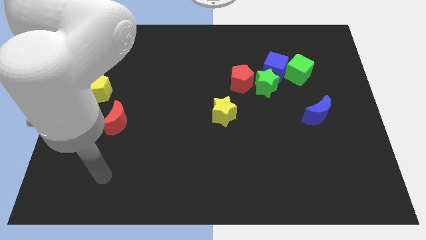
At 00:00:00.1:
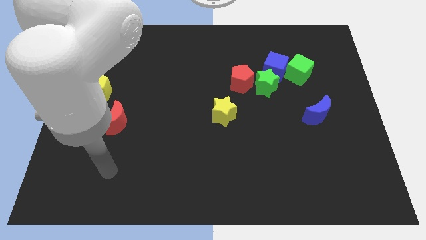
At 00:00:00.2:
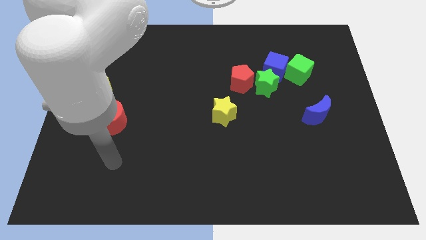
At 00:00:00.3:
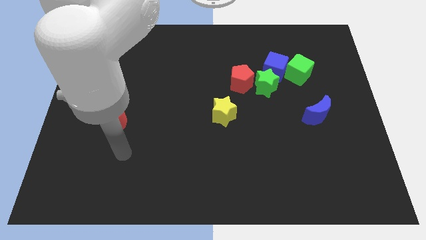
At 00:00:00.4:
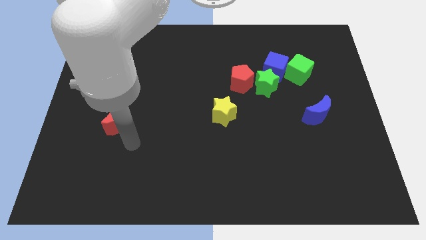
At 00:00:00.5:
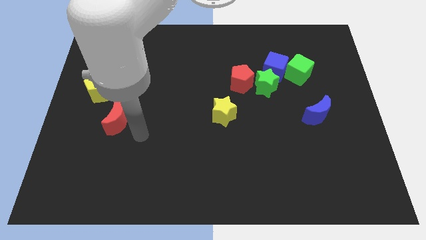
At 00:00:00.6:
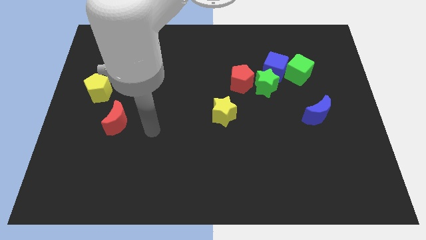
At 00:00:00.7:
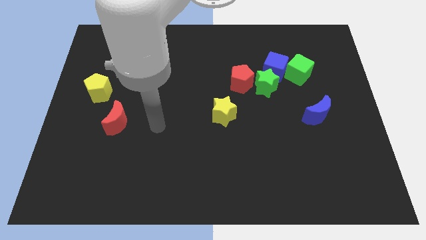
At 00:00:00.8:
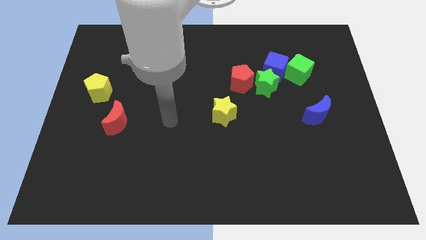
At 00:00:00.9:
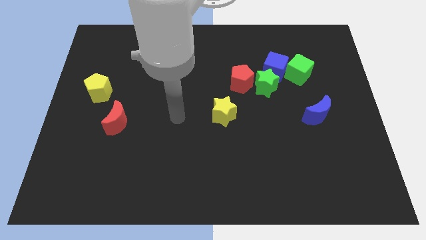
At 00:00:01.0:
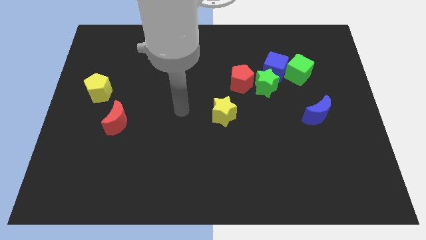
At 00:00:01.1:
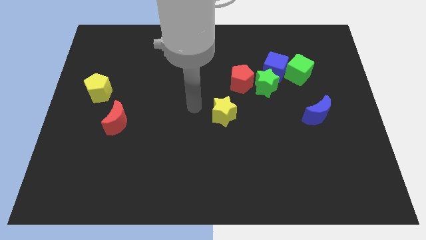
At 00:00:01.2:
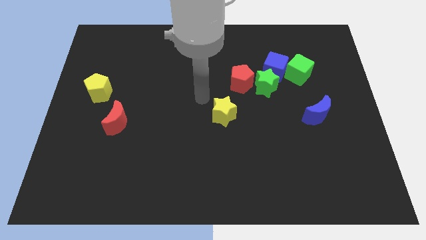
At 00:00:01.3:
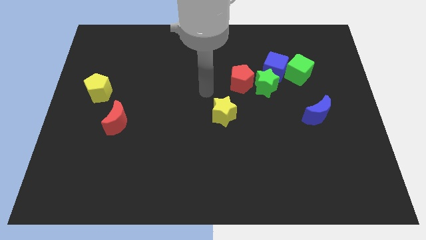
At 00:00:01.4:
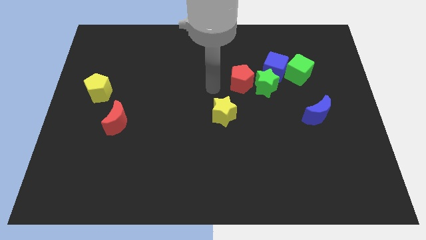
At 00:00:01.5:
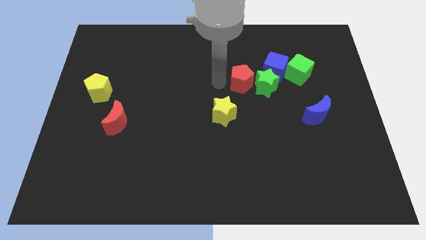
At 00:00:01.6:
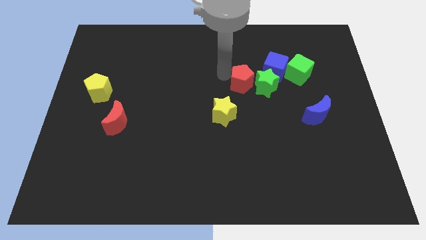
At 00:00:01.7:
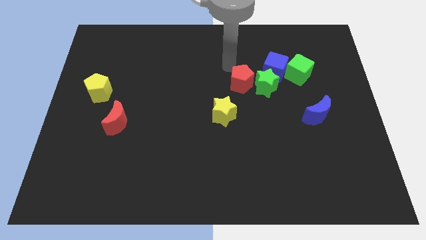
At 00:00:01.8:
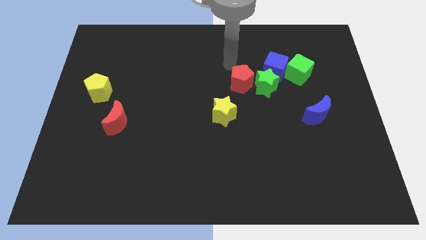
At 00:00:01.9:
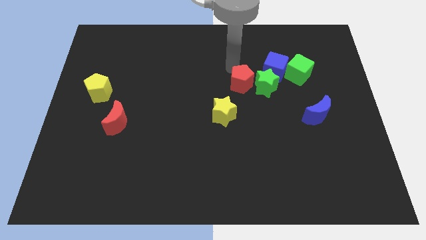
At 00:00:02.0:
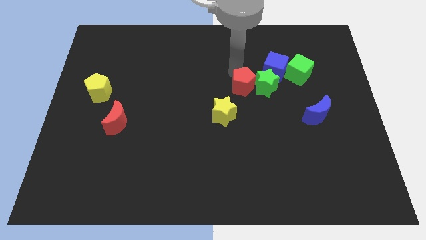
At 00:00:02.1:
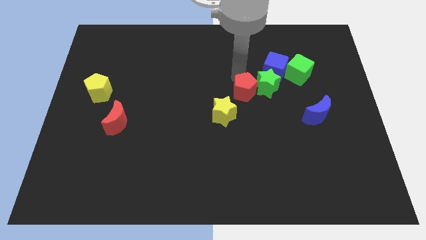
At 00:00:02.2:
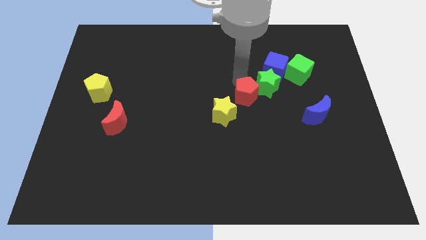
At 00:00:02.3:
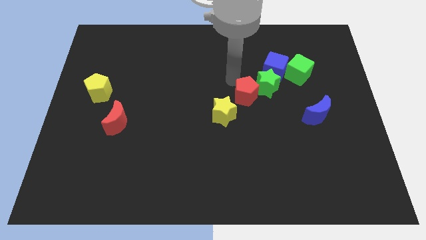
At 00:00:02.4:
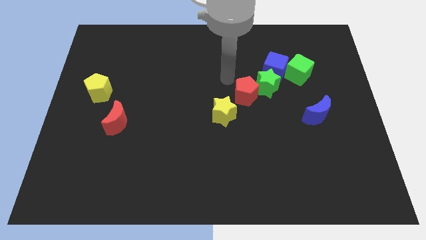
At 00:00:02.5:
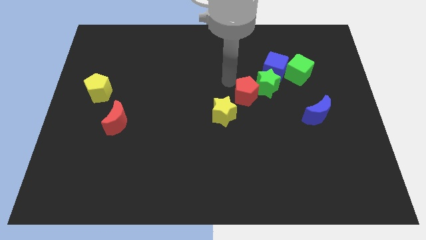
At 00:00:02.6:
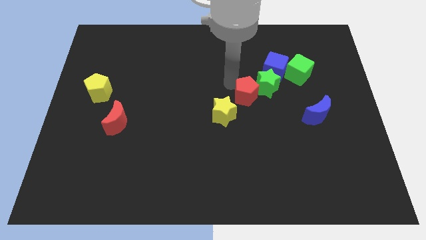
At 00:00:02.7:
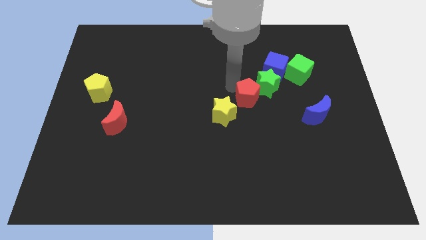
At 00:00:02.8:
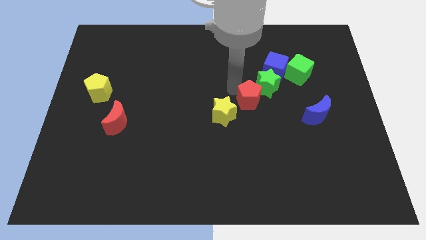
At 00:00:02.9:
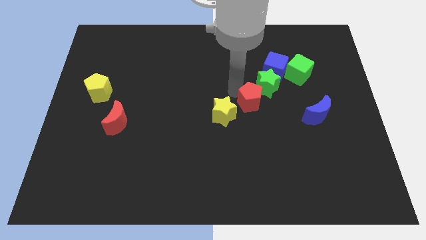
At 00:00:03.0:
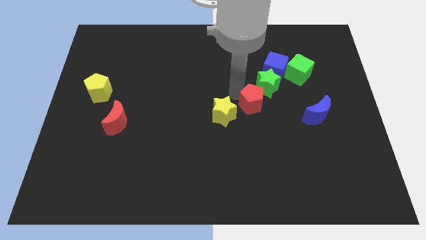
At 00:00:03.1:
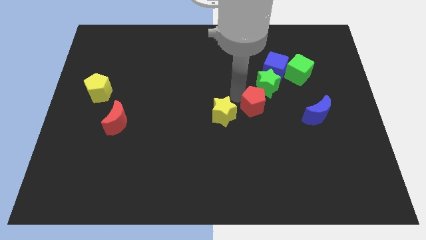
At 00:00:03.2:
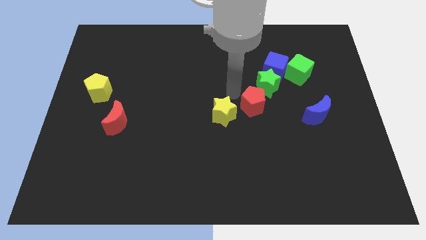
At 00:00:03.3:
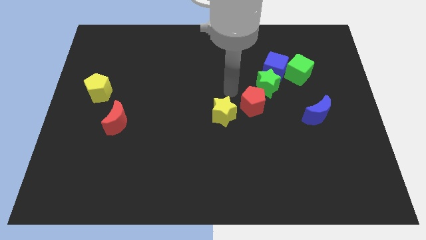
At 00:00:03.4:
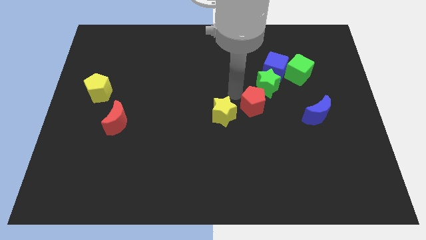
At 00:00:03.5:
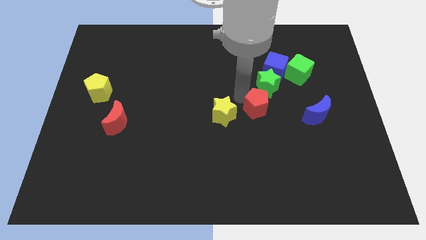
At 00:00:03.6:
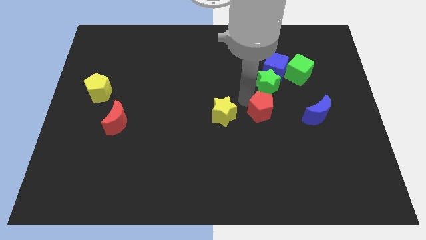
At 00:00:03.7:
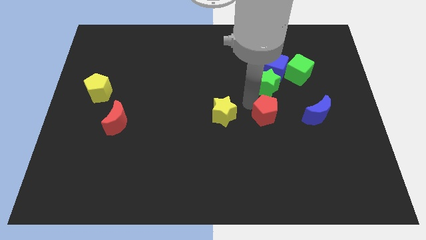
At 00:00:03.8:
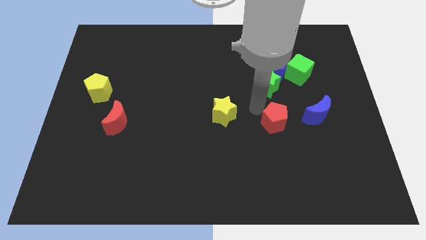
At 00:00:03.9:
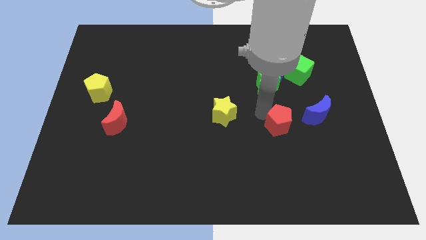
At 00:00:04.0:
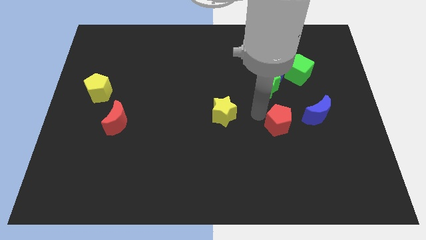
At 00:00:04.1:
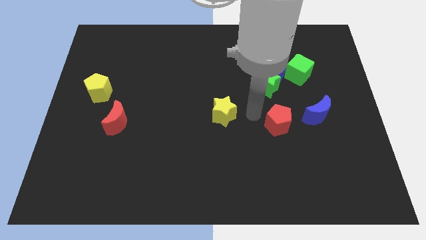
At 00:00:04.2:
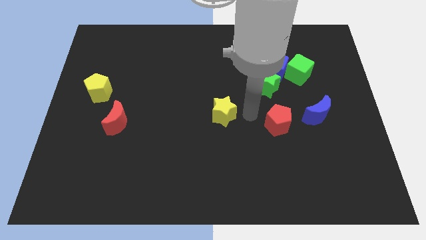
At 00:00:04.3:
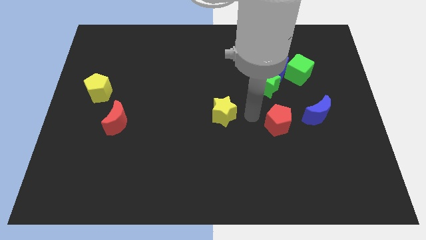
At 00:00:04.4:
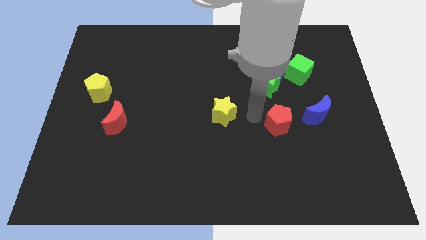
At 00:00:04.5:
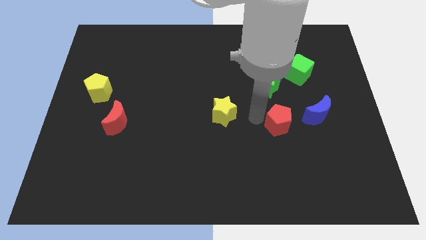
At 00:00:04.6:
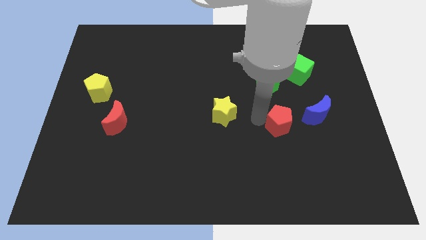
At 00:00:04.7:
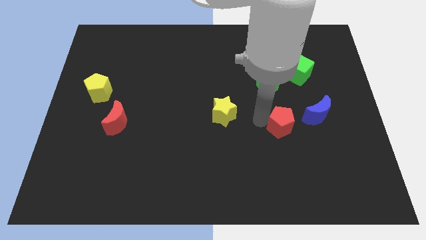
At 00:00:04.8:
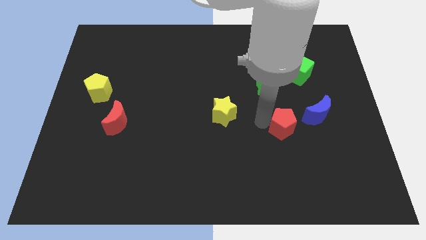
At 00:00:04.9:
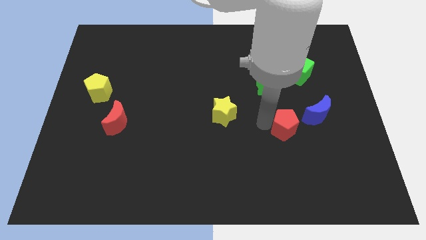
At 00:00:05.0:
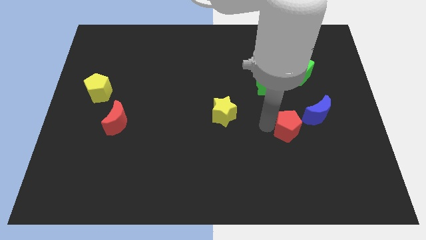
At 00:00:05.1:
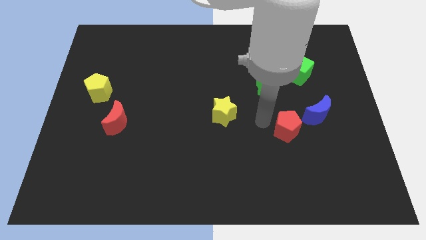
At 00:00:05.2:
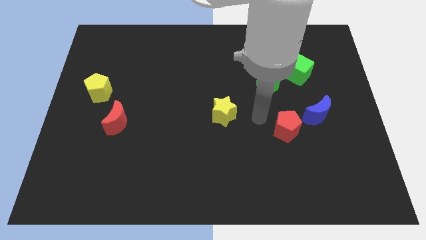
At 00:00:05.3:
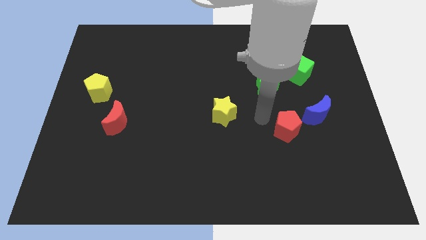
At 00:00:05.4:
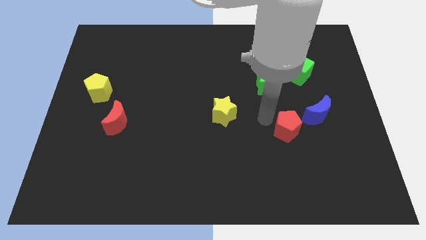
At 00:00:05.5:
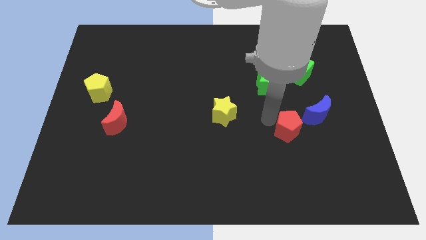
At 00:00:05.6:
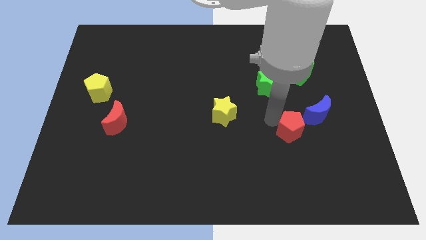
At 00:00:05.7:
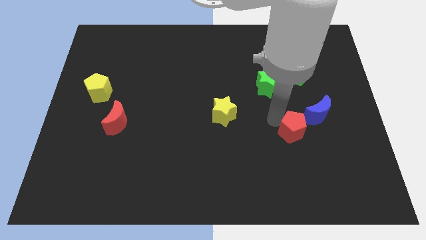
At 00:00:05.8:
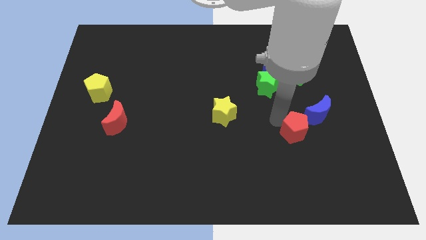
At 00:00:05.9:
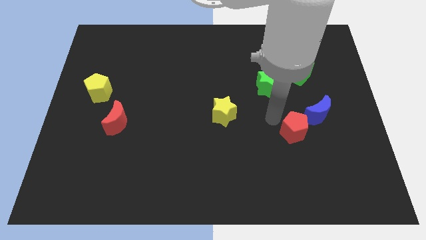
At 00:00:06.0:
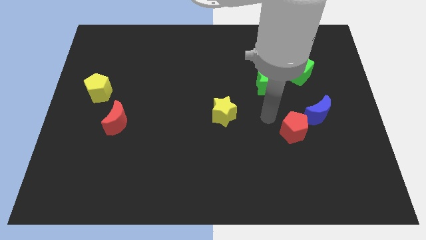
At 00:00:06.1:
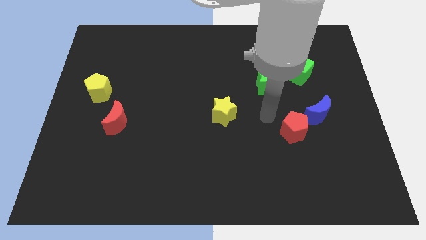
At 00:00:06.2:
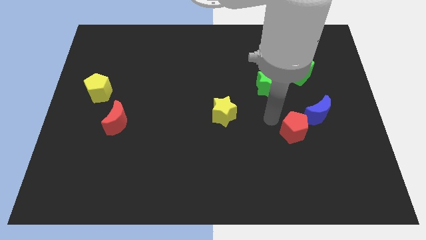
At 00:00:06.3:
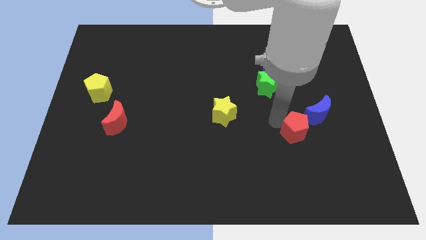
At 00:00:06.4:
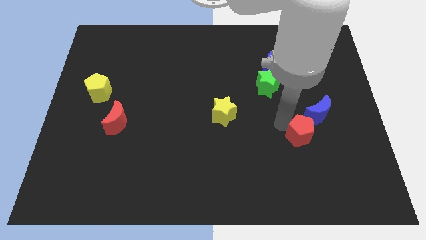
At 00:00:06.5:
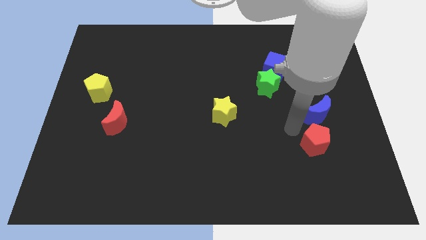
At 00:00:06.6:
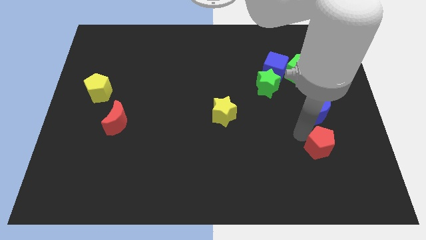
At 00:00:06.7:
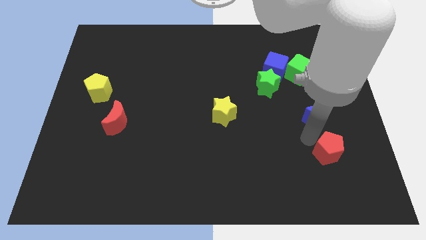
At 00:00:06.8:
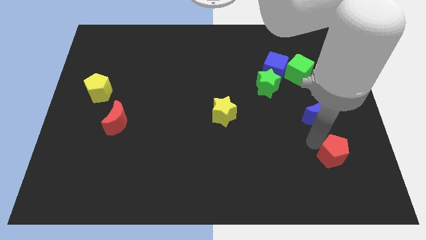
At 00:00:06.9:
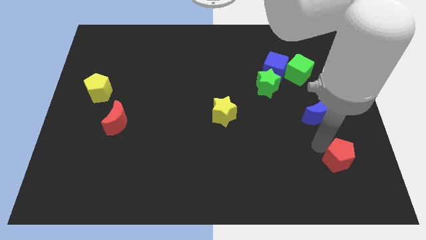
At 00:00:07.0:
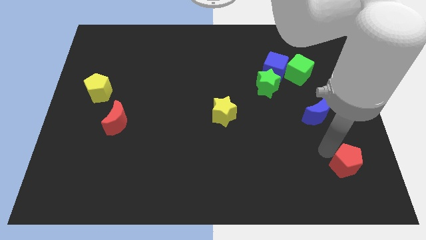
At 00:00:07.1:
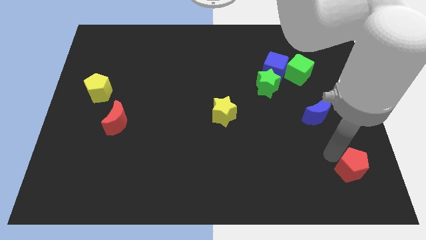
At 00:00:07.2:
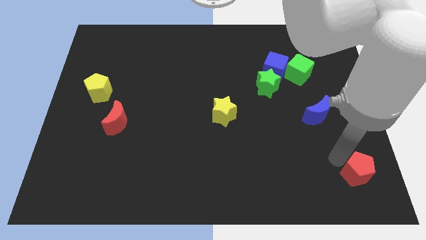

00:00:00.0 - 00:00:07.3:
push the red pentagon to the lower right corner
